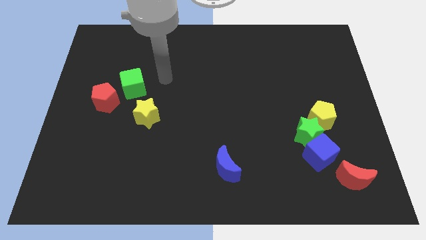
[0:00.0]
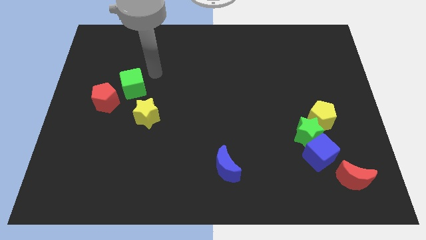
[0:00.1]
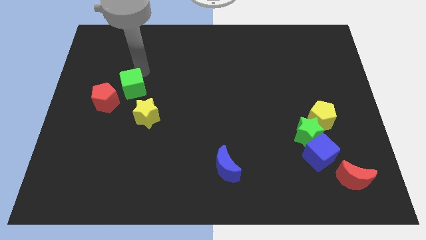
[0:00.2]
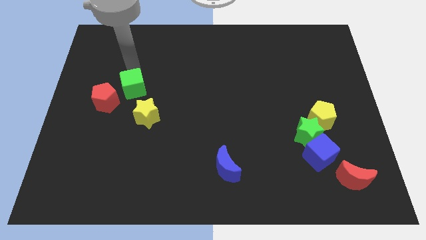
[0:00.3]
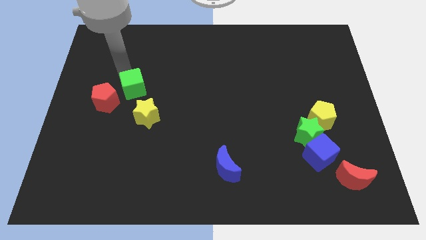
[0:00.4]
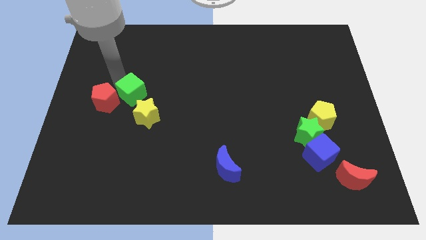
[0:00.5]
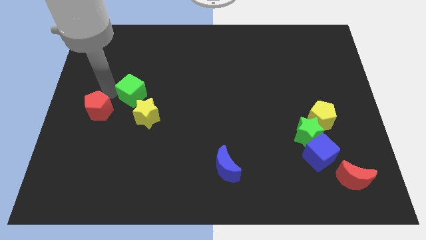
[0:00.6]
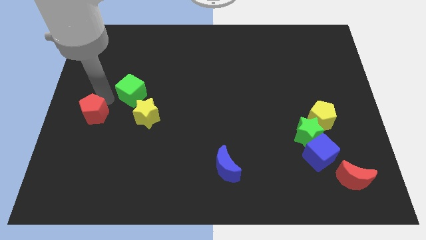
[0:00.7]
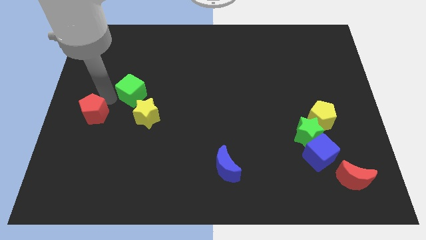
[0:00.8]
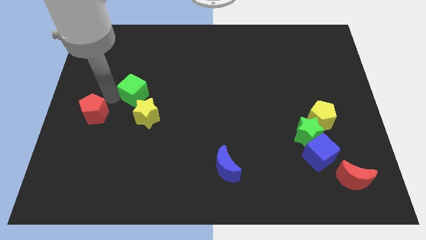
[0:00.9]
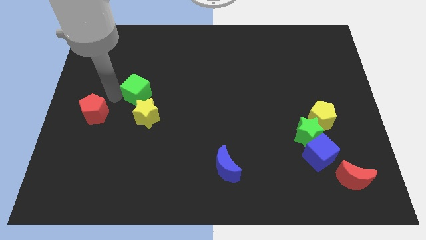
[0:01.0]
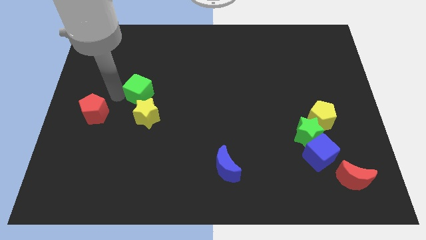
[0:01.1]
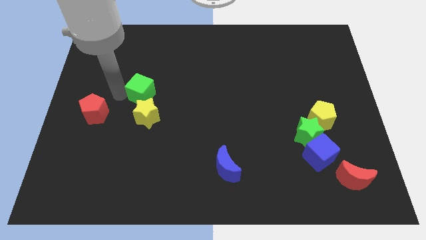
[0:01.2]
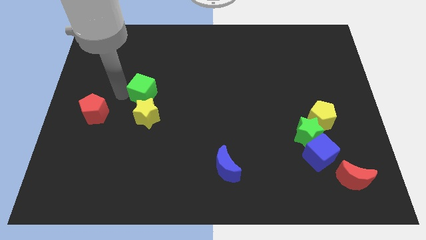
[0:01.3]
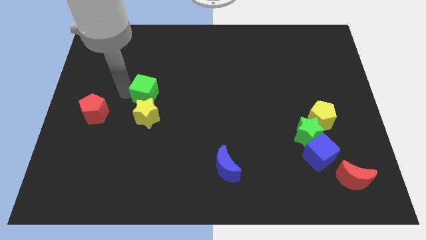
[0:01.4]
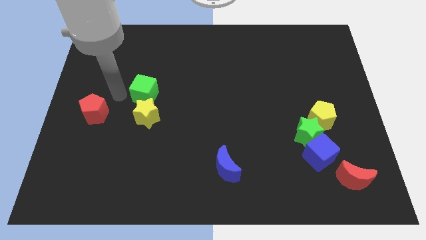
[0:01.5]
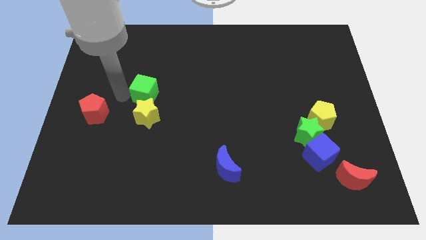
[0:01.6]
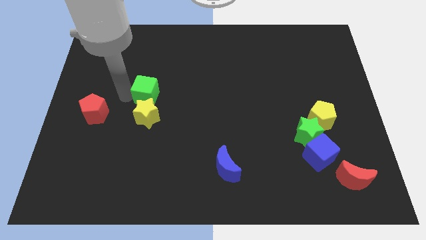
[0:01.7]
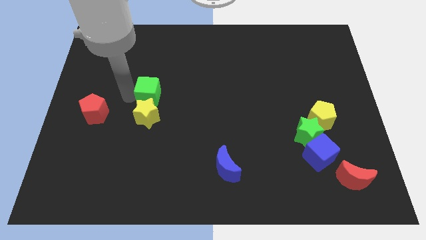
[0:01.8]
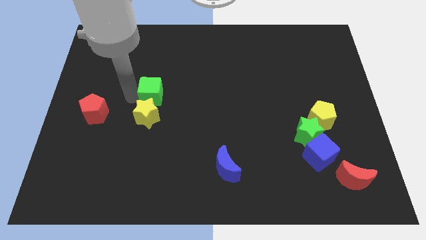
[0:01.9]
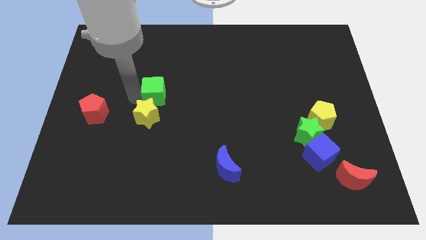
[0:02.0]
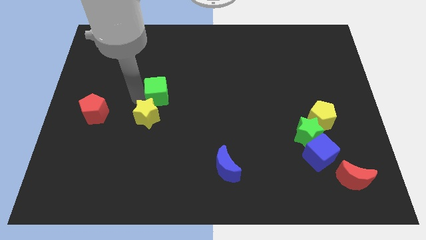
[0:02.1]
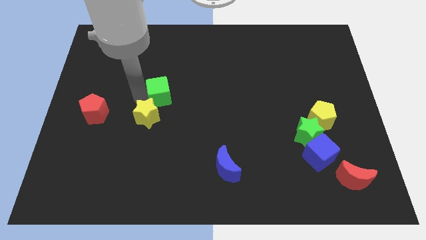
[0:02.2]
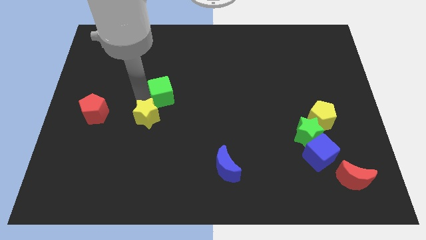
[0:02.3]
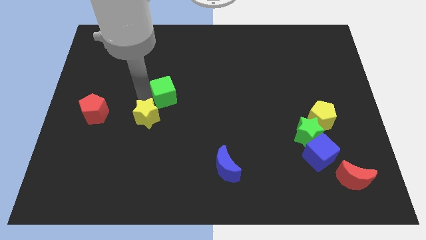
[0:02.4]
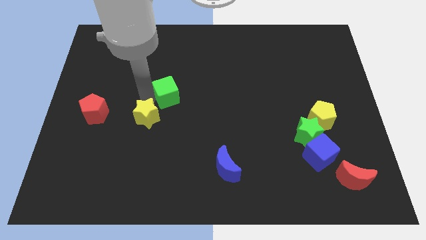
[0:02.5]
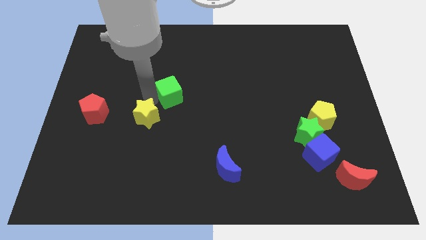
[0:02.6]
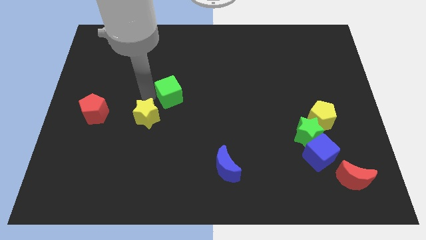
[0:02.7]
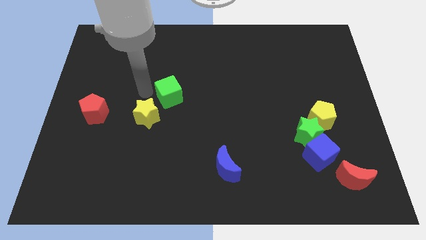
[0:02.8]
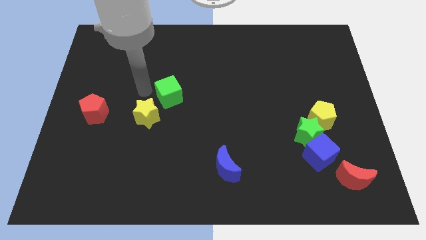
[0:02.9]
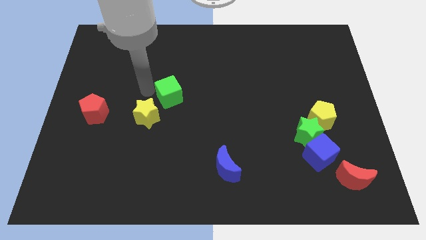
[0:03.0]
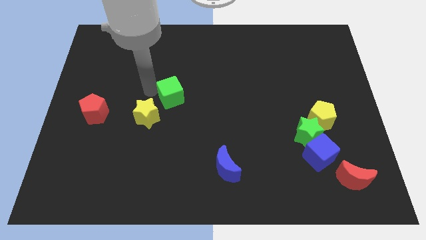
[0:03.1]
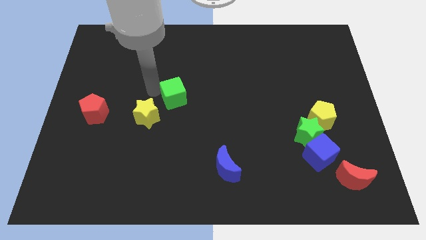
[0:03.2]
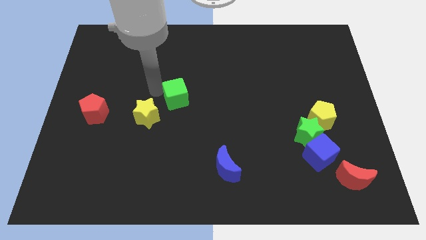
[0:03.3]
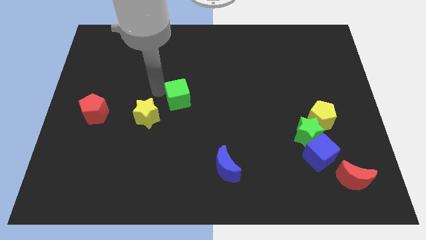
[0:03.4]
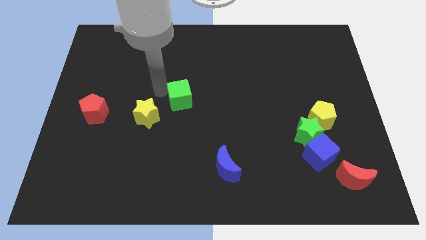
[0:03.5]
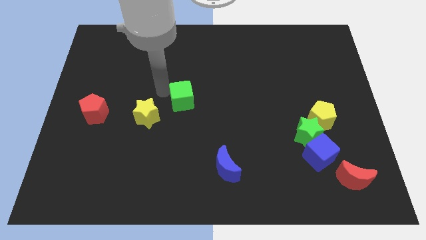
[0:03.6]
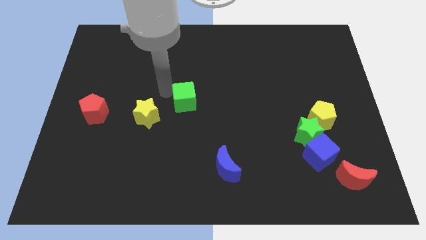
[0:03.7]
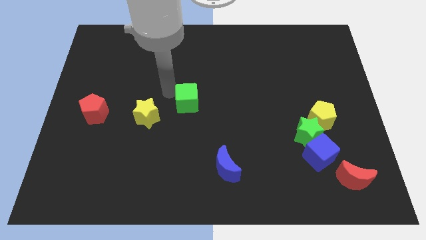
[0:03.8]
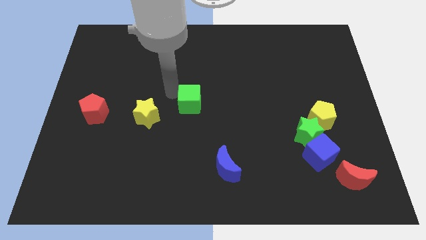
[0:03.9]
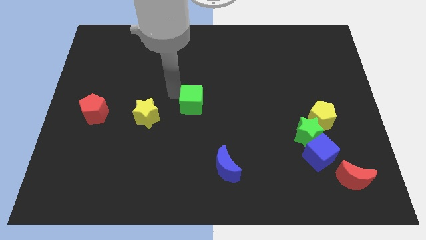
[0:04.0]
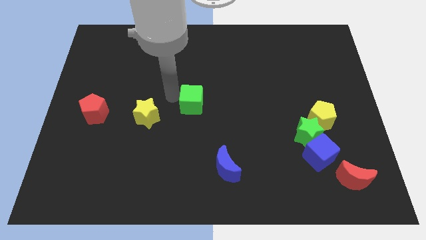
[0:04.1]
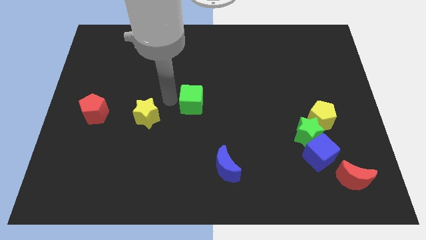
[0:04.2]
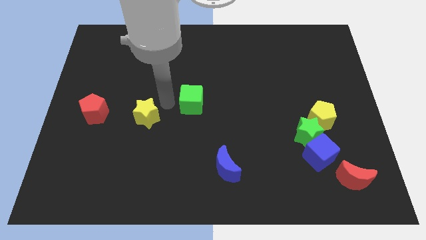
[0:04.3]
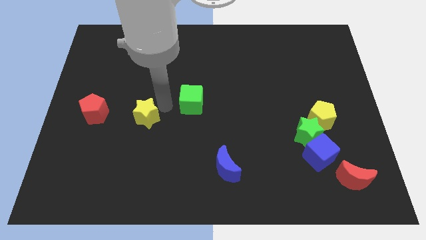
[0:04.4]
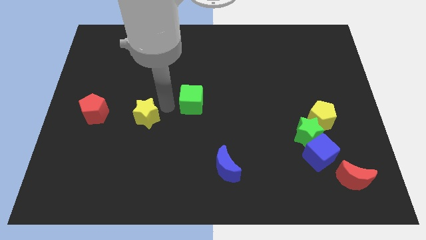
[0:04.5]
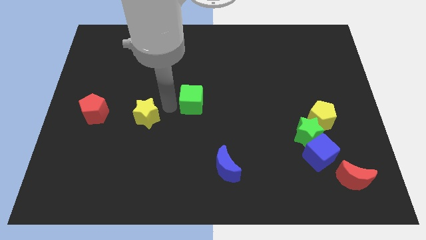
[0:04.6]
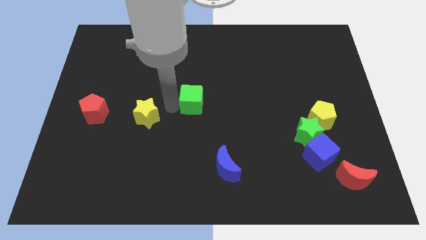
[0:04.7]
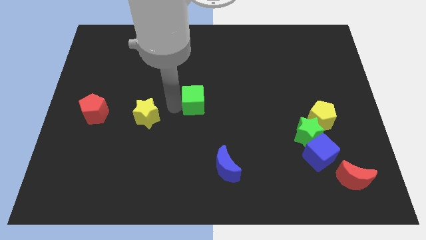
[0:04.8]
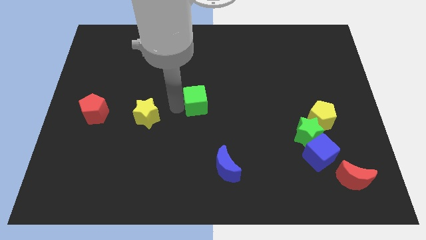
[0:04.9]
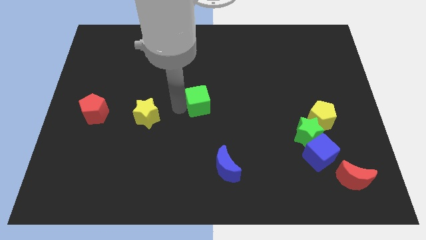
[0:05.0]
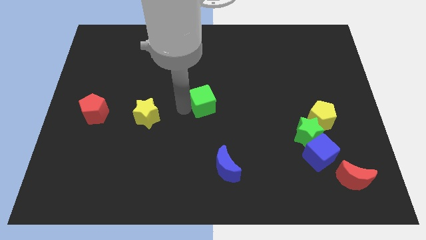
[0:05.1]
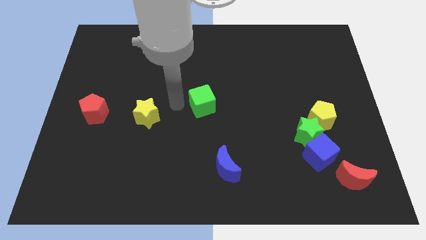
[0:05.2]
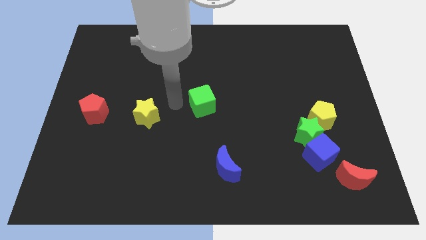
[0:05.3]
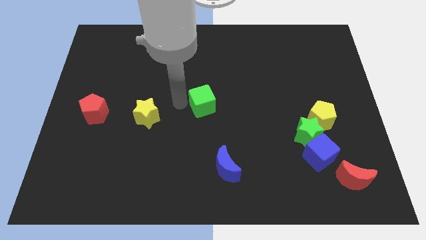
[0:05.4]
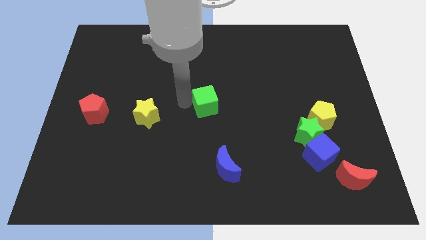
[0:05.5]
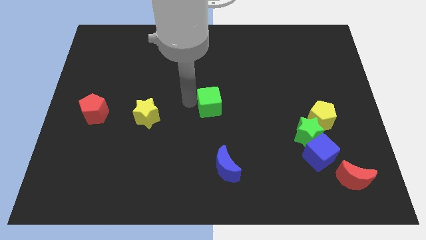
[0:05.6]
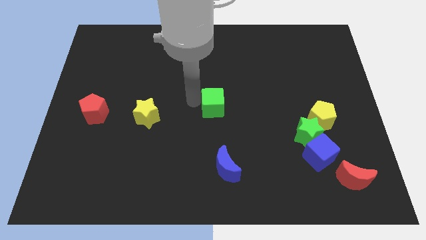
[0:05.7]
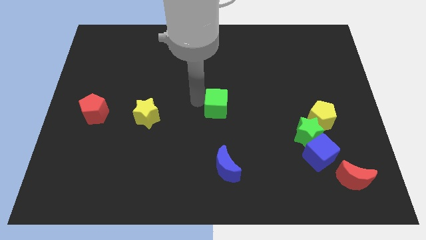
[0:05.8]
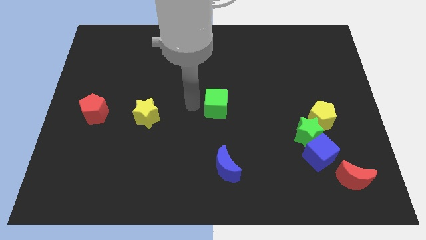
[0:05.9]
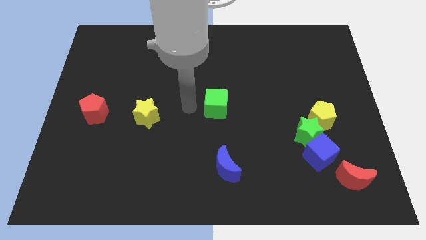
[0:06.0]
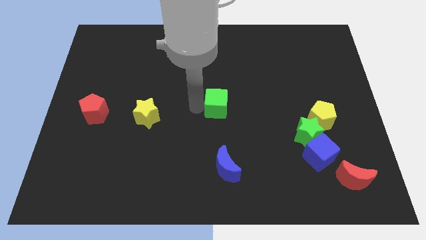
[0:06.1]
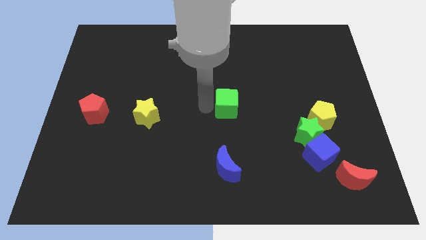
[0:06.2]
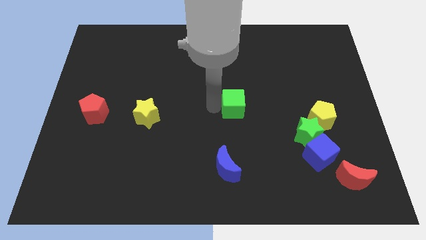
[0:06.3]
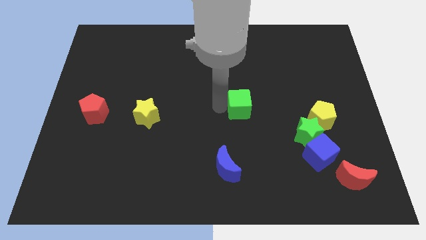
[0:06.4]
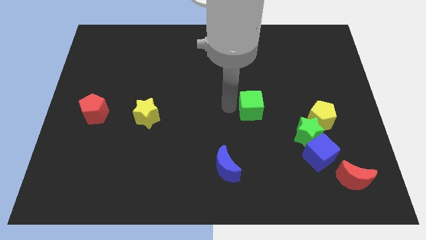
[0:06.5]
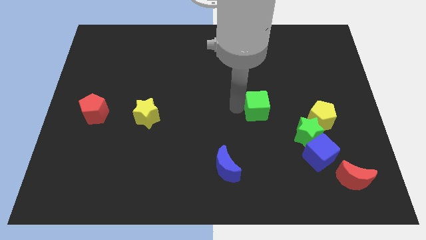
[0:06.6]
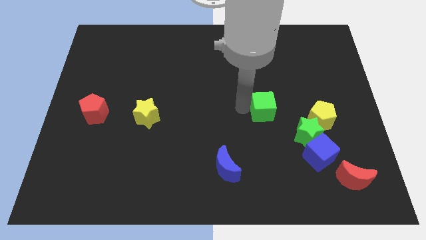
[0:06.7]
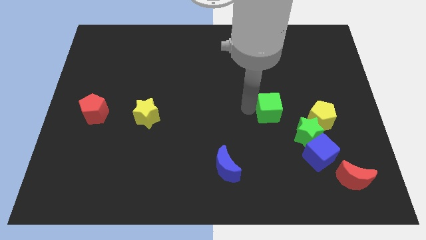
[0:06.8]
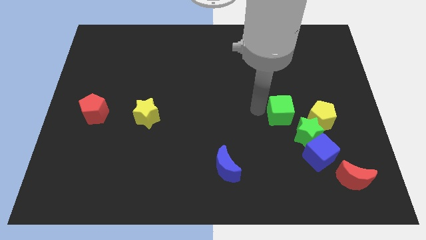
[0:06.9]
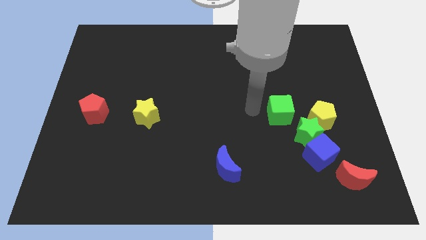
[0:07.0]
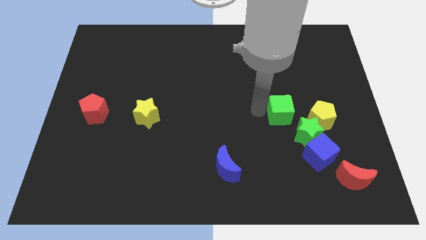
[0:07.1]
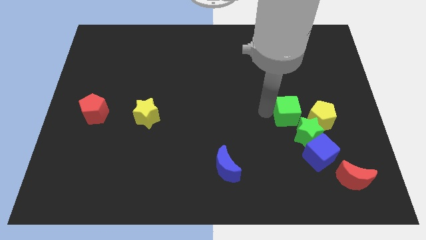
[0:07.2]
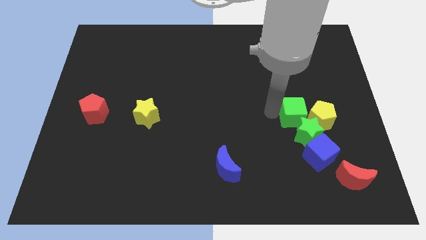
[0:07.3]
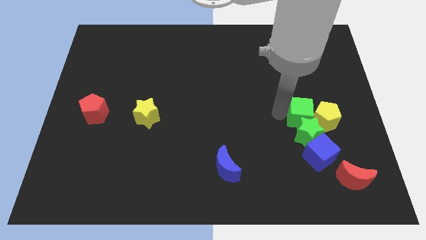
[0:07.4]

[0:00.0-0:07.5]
move the green cube to the yellow pentagon
